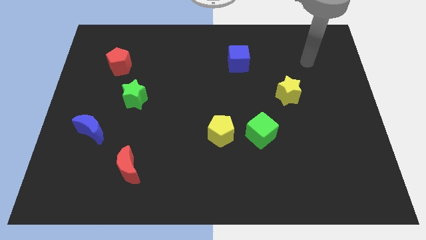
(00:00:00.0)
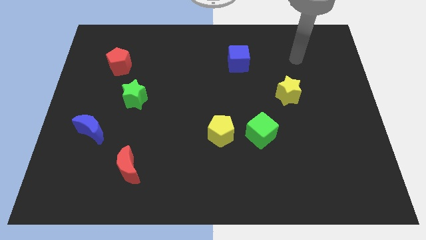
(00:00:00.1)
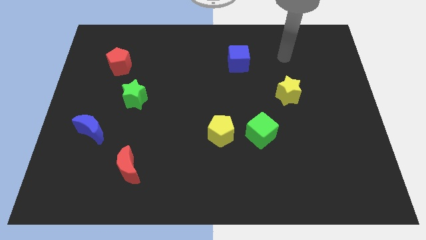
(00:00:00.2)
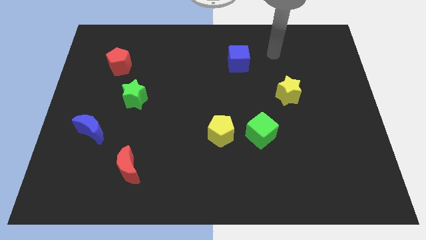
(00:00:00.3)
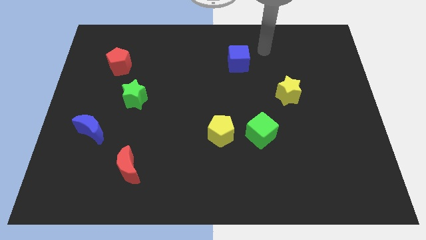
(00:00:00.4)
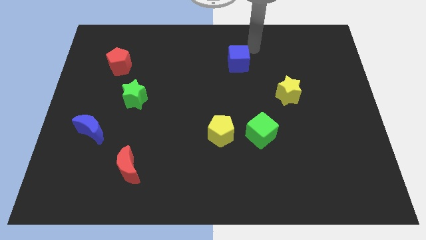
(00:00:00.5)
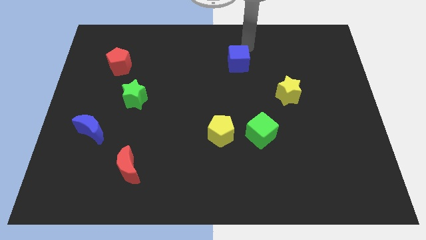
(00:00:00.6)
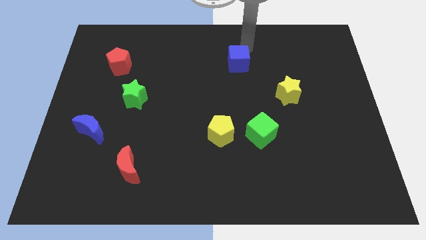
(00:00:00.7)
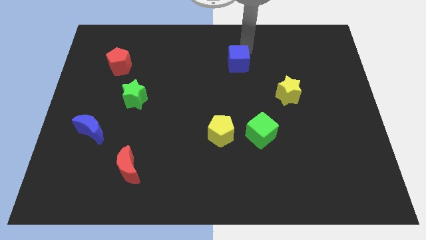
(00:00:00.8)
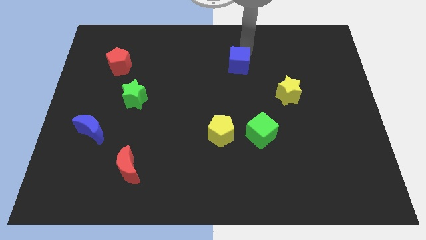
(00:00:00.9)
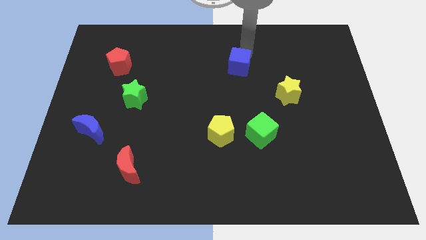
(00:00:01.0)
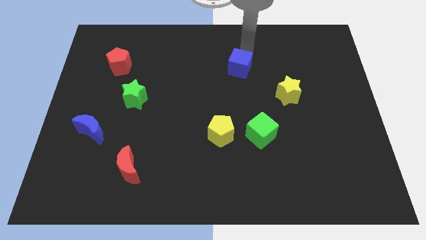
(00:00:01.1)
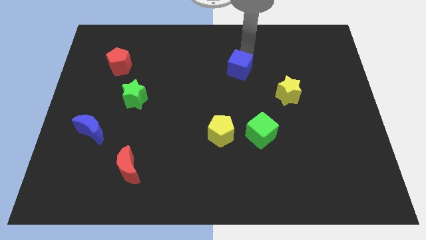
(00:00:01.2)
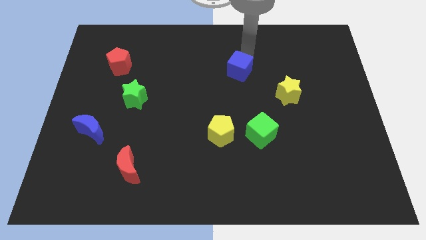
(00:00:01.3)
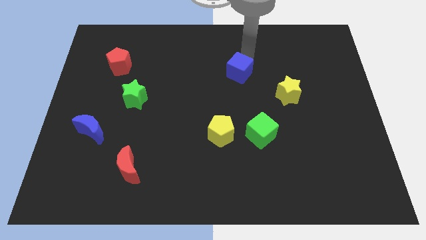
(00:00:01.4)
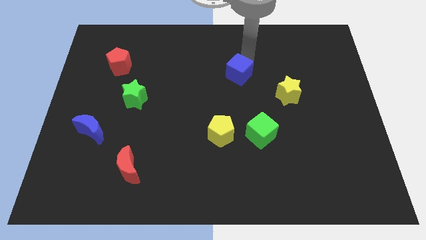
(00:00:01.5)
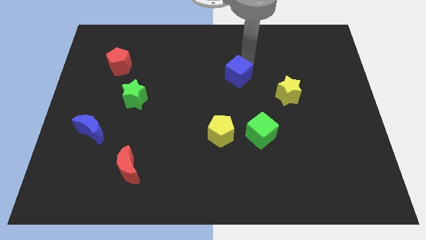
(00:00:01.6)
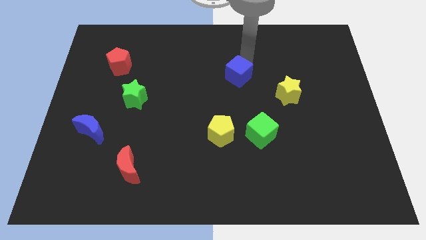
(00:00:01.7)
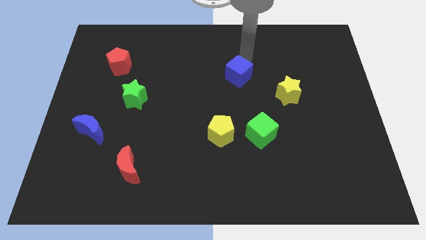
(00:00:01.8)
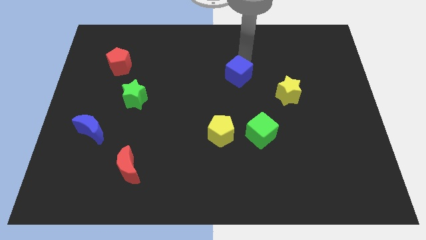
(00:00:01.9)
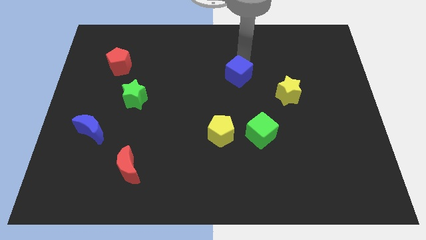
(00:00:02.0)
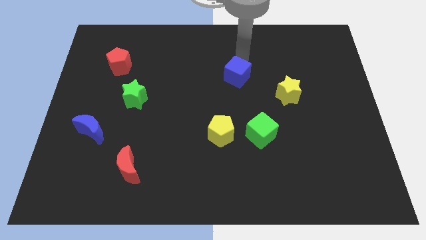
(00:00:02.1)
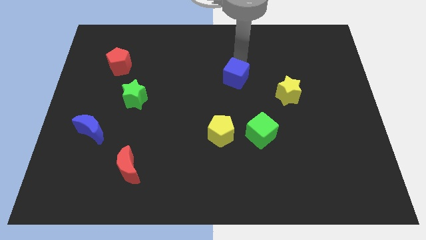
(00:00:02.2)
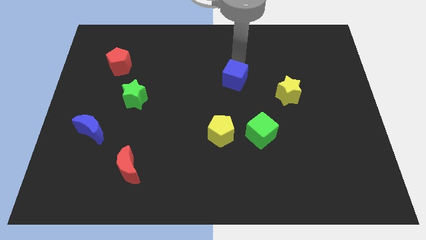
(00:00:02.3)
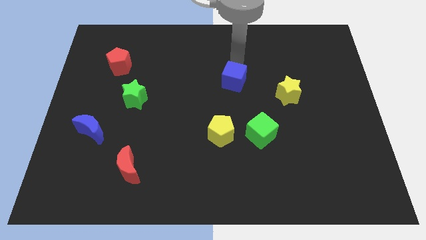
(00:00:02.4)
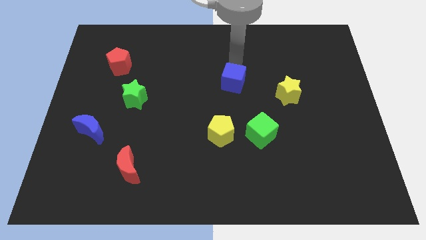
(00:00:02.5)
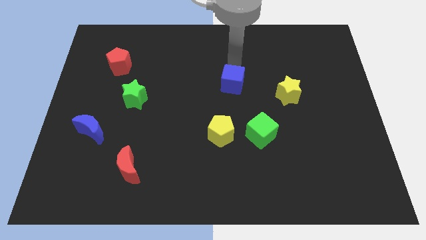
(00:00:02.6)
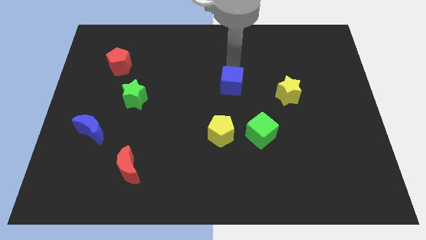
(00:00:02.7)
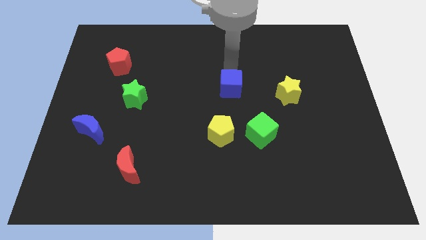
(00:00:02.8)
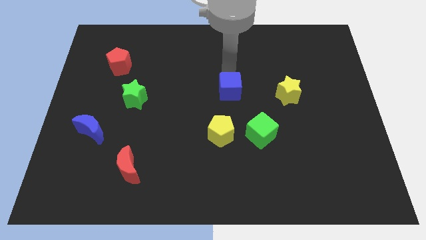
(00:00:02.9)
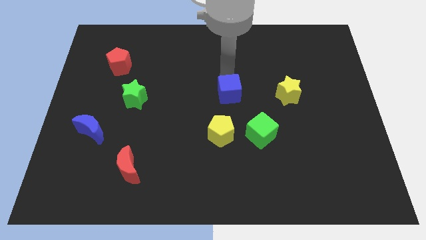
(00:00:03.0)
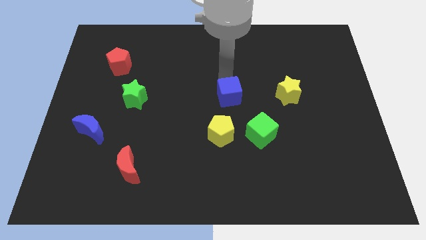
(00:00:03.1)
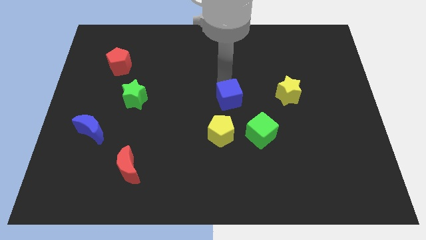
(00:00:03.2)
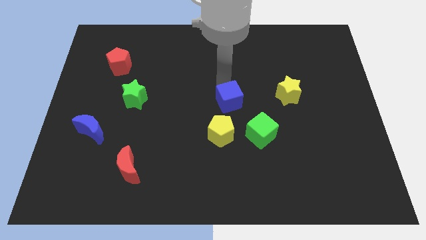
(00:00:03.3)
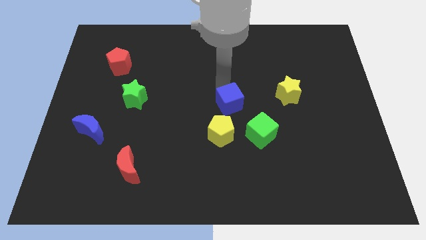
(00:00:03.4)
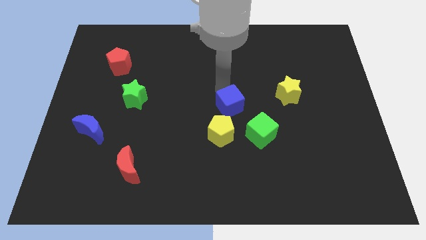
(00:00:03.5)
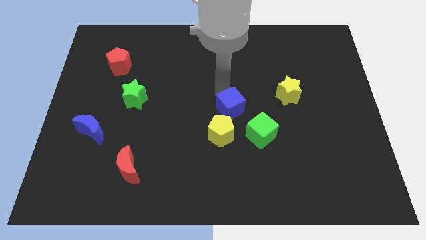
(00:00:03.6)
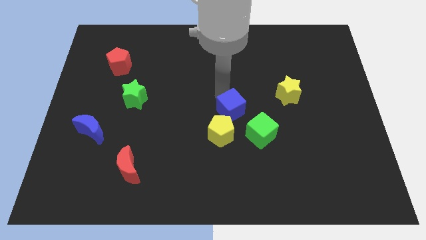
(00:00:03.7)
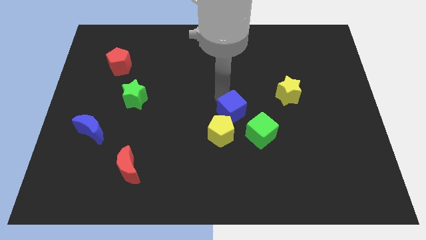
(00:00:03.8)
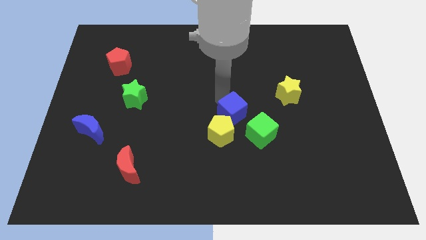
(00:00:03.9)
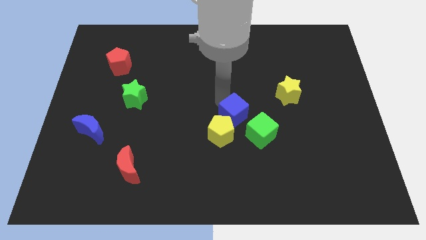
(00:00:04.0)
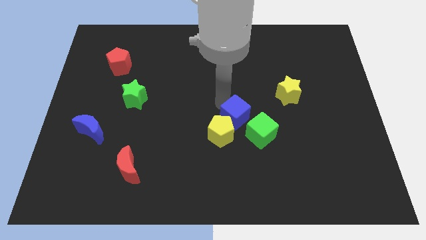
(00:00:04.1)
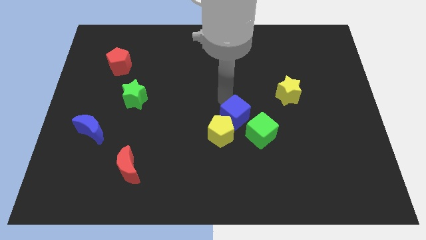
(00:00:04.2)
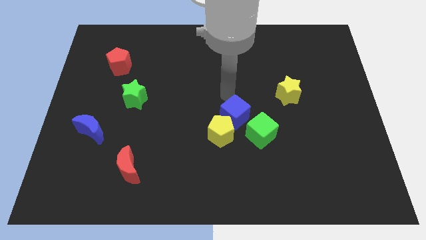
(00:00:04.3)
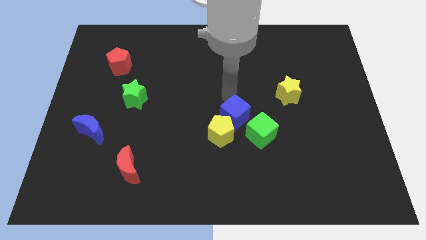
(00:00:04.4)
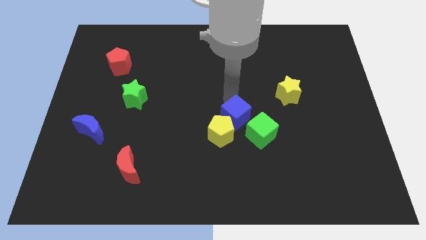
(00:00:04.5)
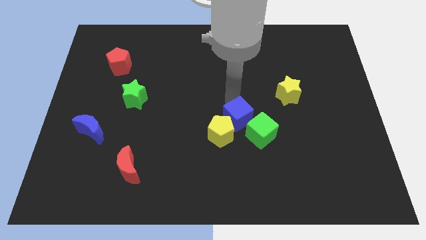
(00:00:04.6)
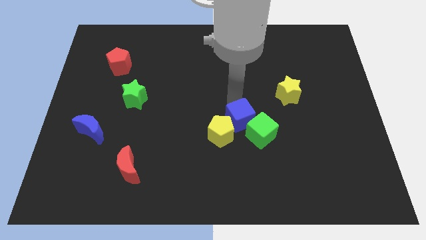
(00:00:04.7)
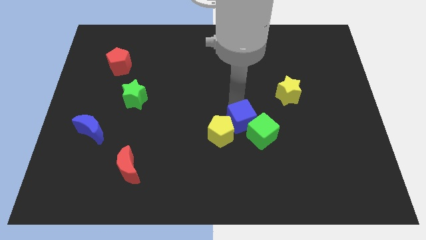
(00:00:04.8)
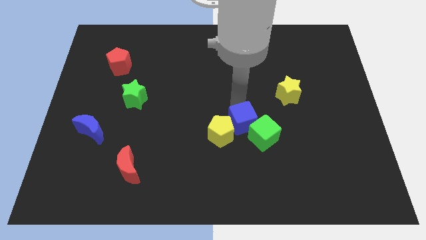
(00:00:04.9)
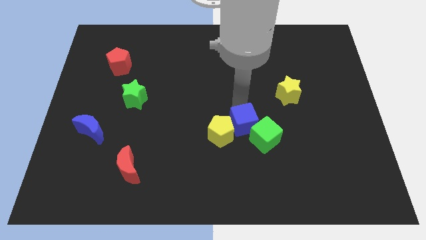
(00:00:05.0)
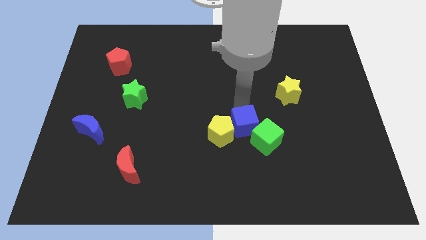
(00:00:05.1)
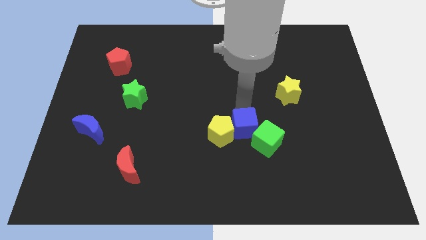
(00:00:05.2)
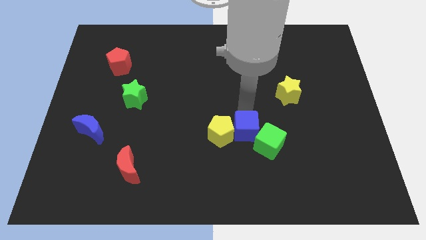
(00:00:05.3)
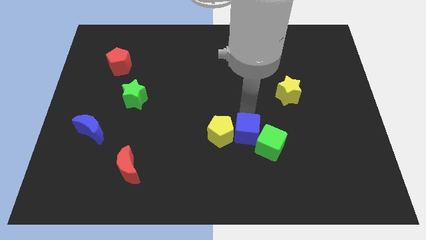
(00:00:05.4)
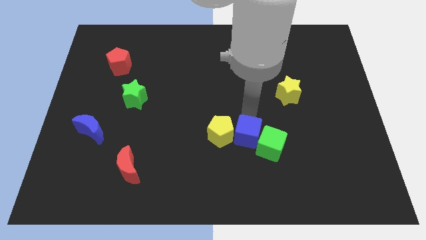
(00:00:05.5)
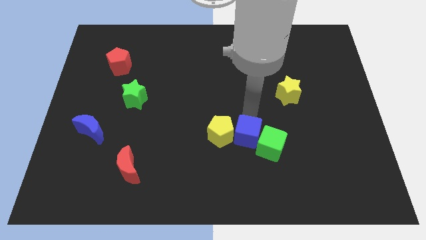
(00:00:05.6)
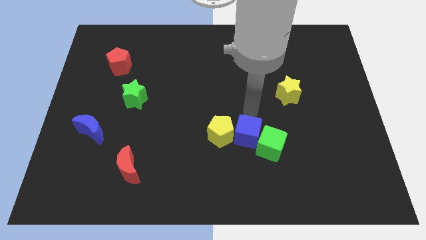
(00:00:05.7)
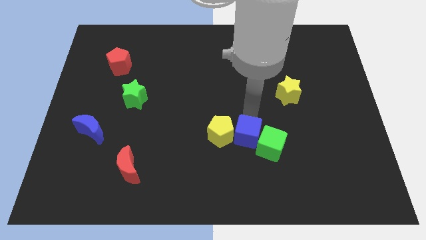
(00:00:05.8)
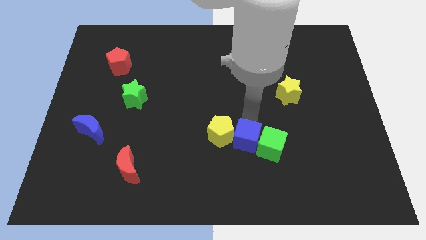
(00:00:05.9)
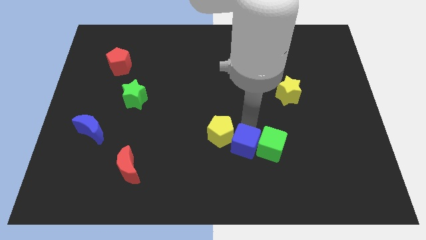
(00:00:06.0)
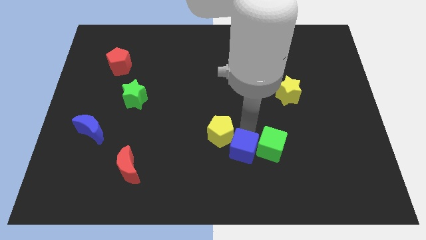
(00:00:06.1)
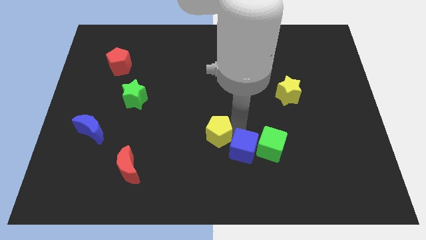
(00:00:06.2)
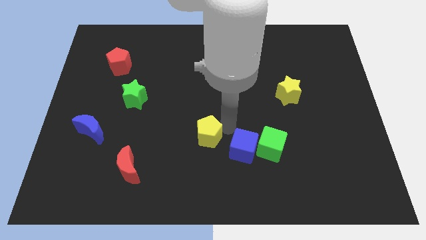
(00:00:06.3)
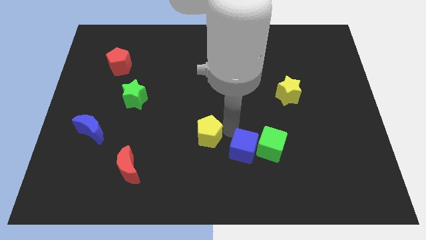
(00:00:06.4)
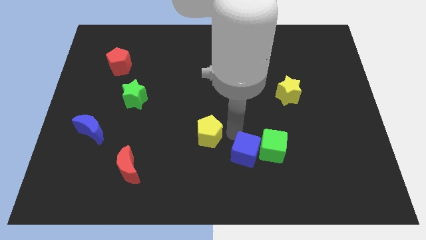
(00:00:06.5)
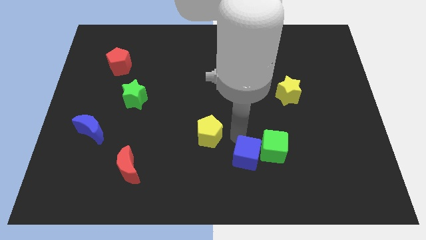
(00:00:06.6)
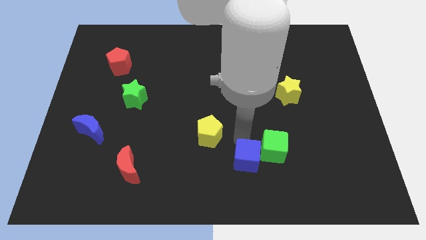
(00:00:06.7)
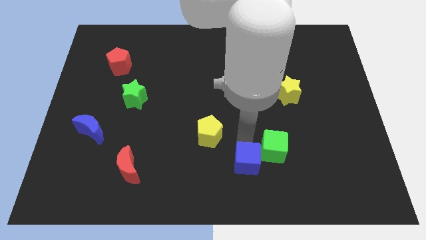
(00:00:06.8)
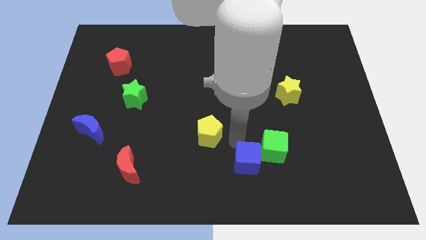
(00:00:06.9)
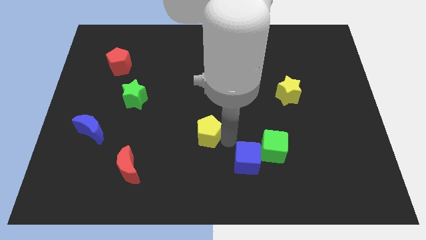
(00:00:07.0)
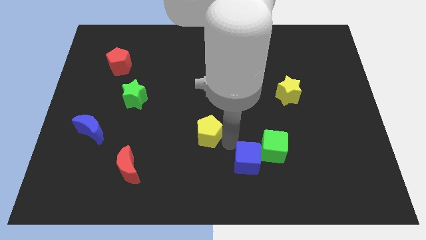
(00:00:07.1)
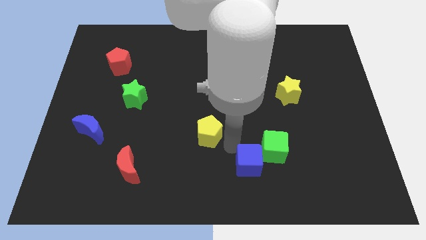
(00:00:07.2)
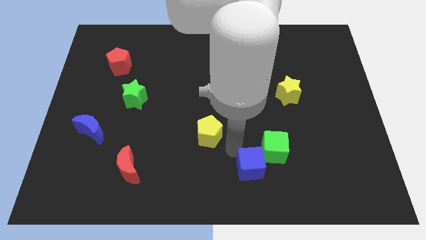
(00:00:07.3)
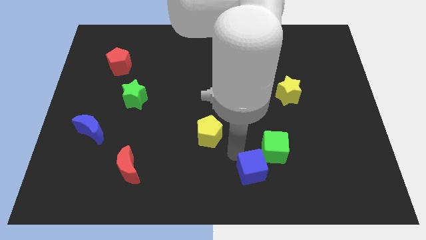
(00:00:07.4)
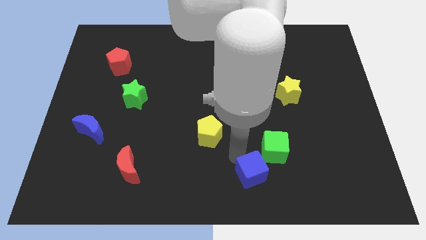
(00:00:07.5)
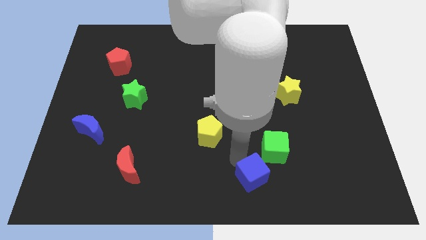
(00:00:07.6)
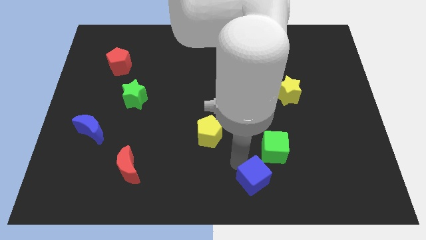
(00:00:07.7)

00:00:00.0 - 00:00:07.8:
move the blue cube below the green cube
